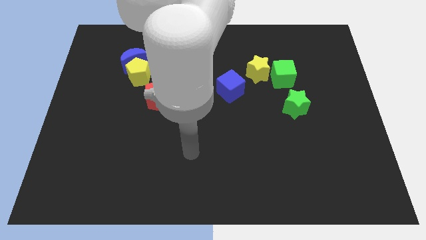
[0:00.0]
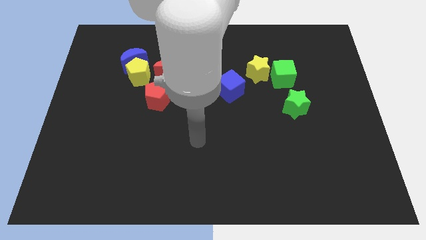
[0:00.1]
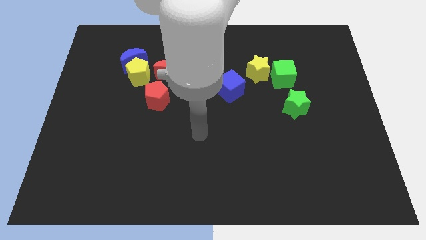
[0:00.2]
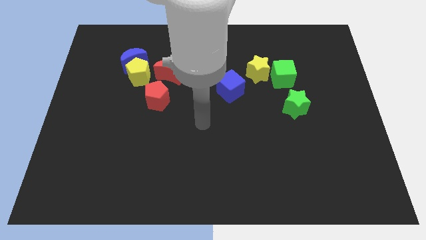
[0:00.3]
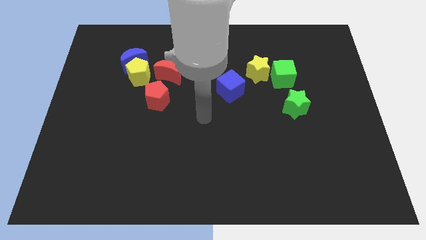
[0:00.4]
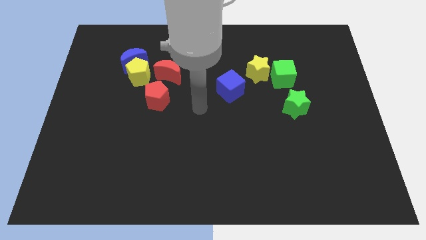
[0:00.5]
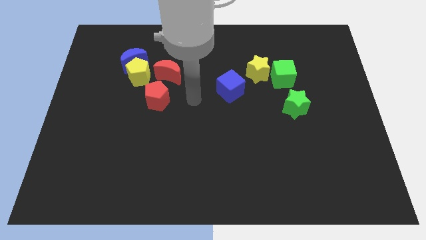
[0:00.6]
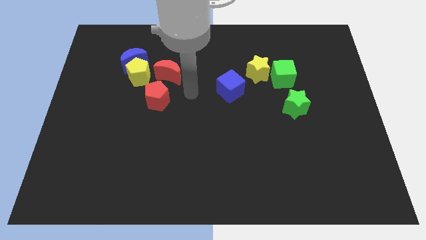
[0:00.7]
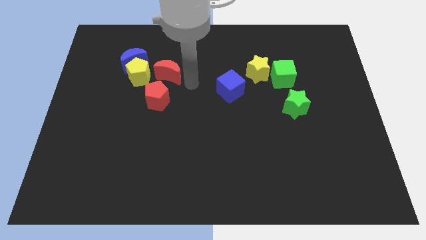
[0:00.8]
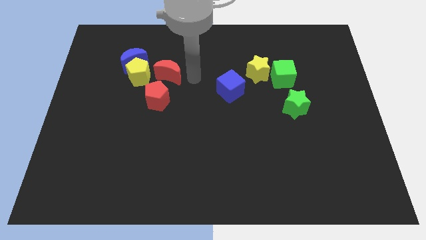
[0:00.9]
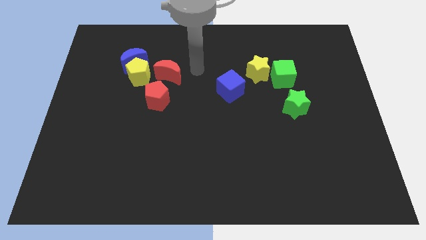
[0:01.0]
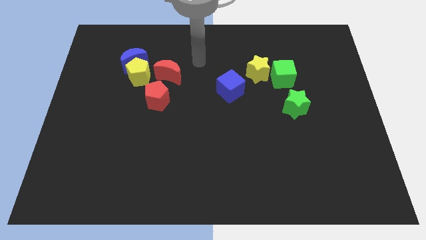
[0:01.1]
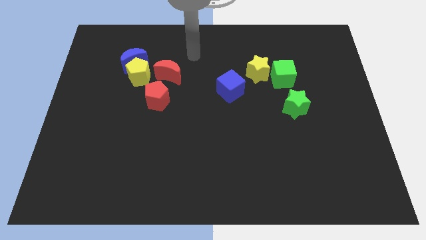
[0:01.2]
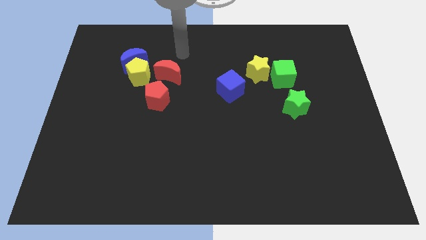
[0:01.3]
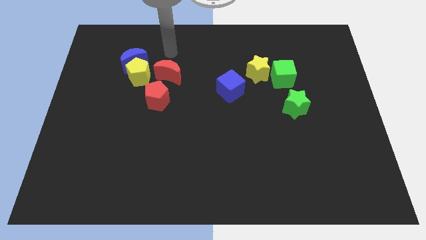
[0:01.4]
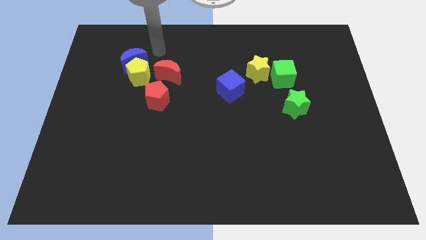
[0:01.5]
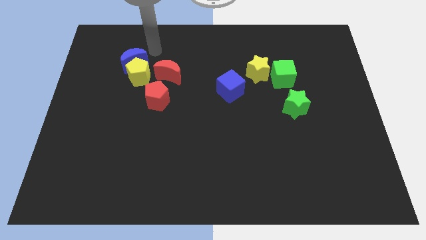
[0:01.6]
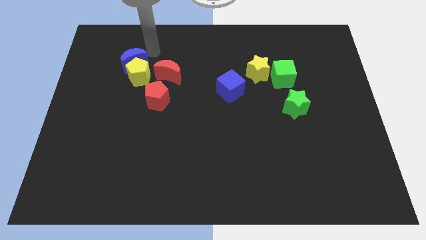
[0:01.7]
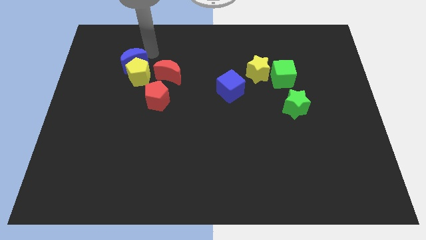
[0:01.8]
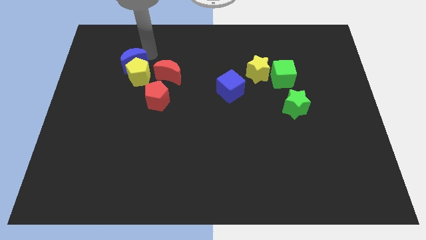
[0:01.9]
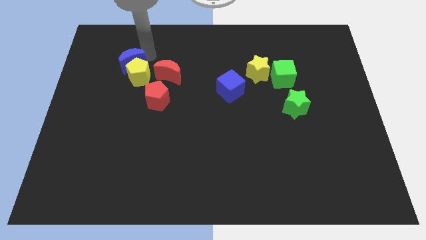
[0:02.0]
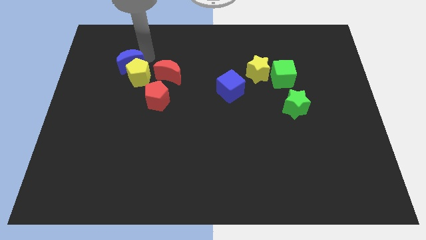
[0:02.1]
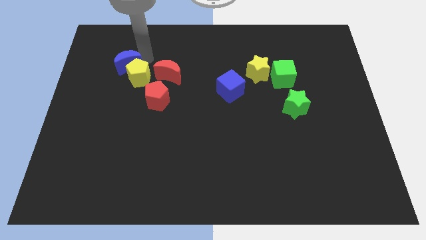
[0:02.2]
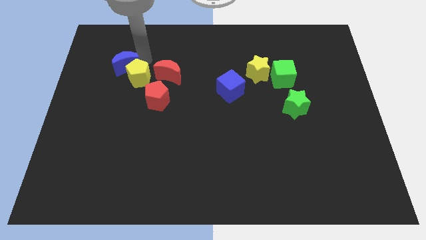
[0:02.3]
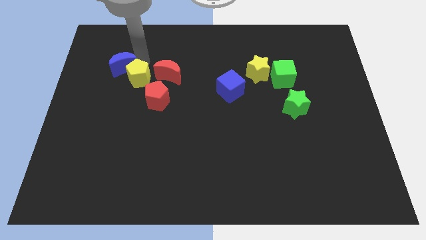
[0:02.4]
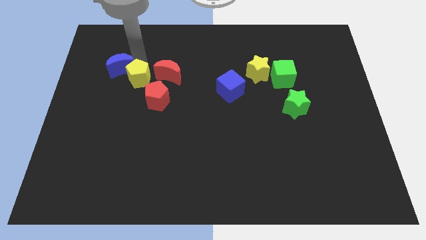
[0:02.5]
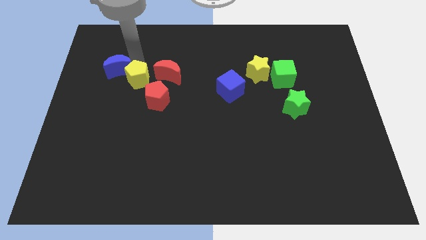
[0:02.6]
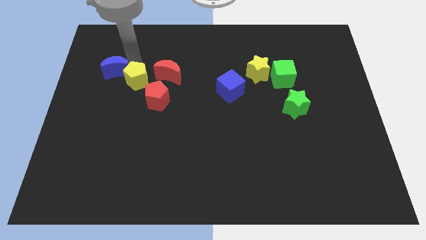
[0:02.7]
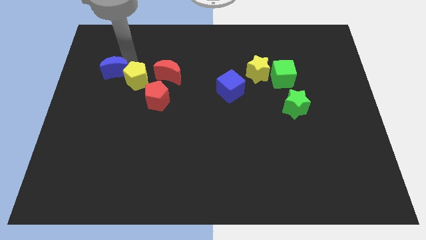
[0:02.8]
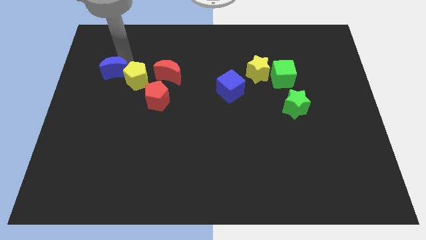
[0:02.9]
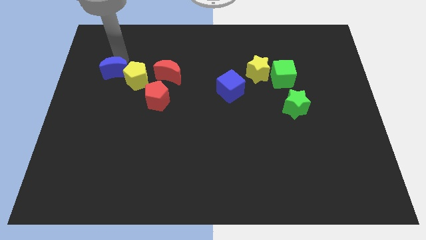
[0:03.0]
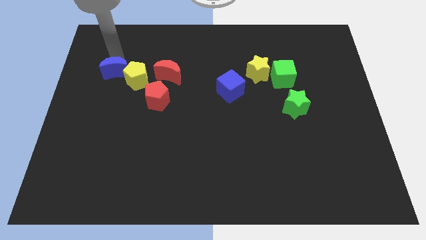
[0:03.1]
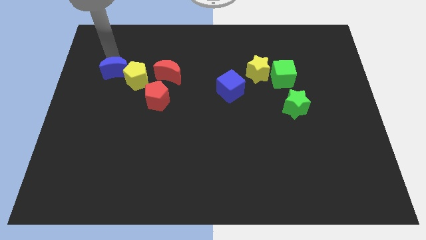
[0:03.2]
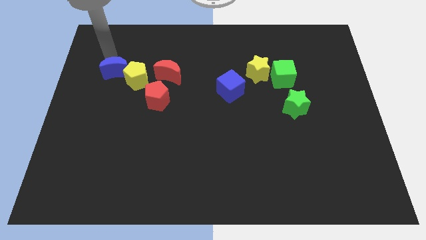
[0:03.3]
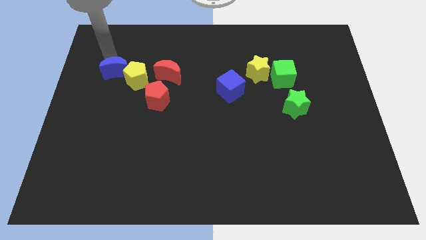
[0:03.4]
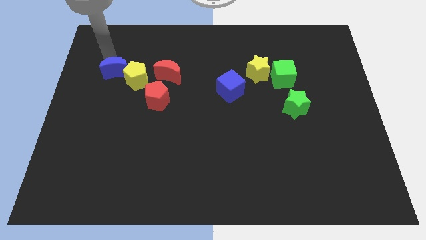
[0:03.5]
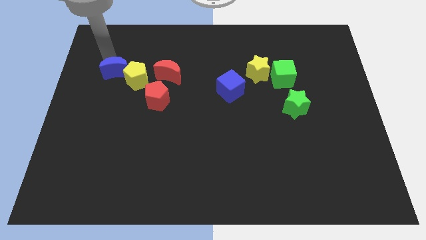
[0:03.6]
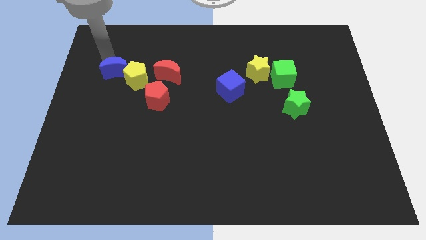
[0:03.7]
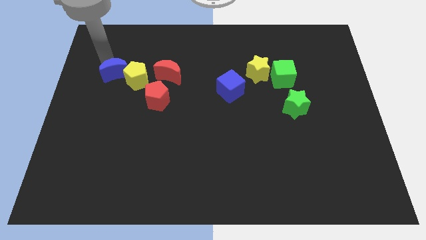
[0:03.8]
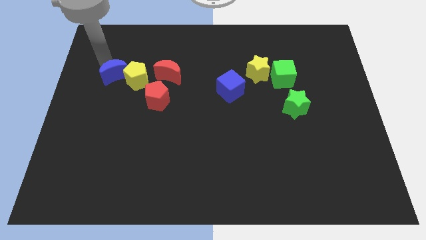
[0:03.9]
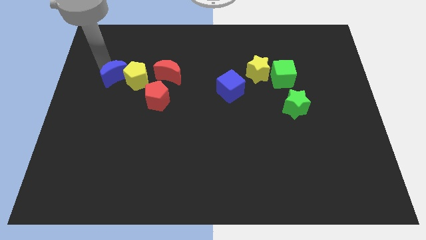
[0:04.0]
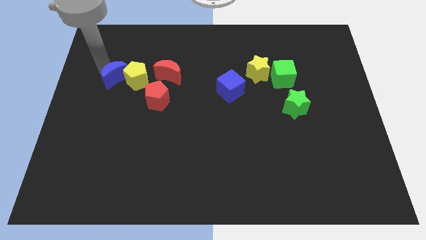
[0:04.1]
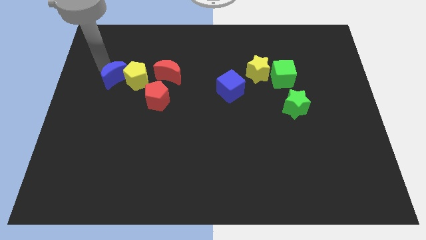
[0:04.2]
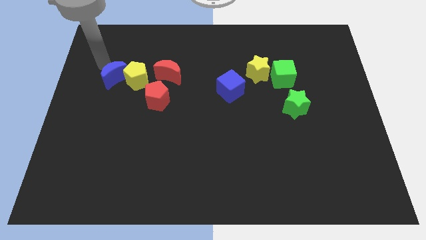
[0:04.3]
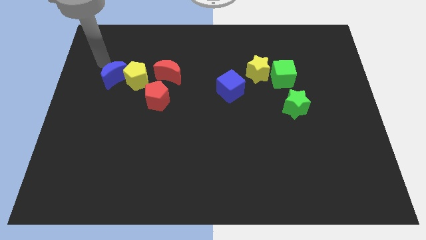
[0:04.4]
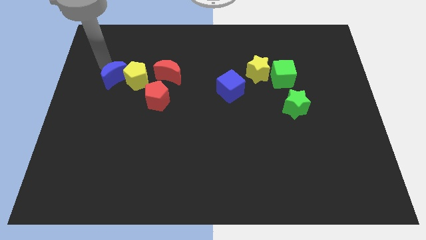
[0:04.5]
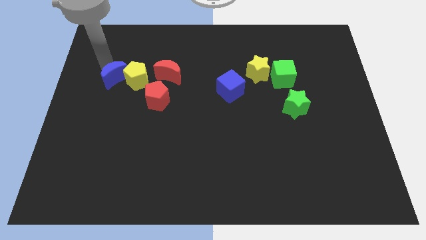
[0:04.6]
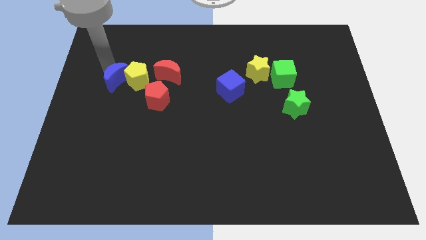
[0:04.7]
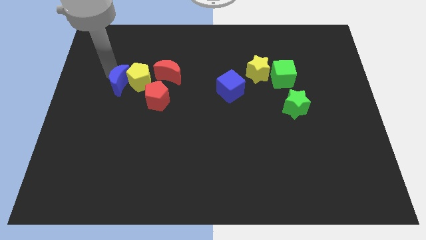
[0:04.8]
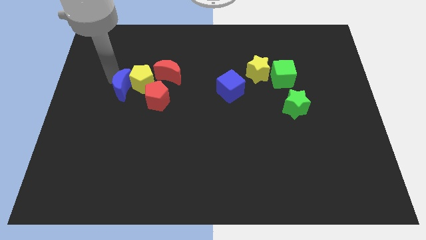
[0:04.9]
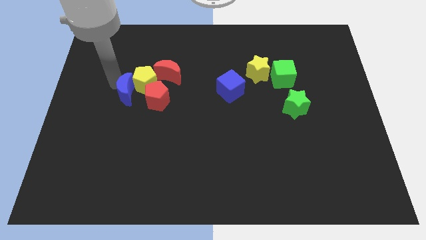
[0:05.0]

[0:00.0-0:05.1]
move the blue moon to the bottom left side of the red moon

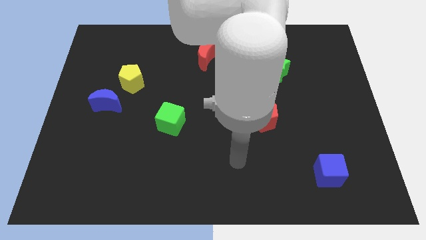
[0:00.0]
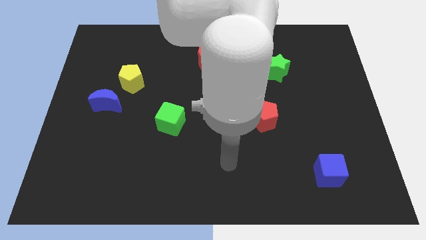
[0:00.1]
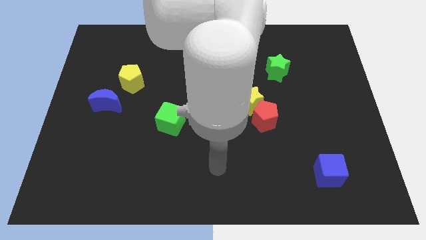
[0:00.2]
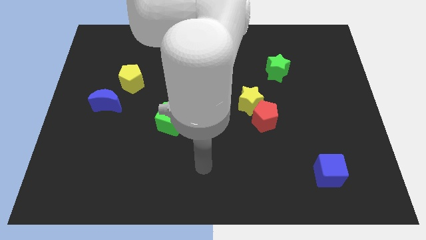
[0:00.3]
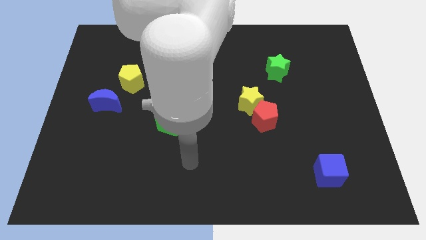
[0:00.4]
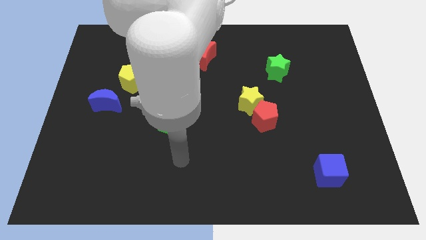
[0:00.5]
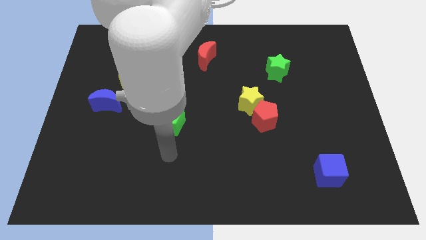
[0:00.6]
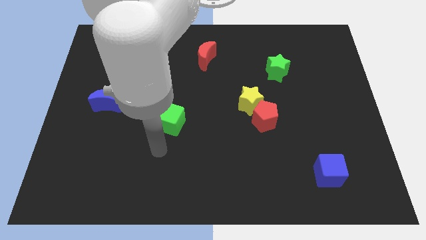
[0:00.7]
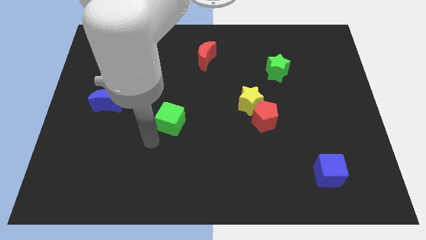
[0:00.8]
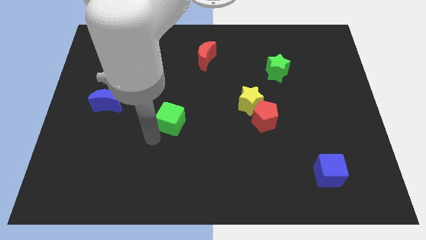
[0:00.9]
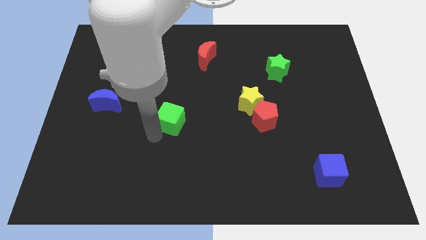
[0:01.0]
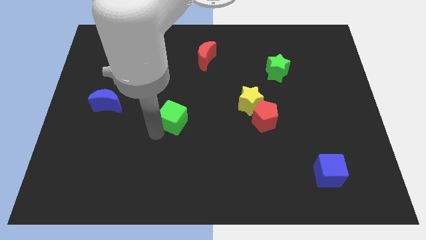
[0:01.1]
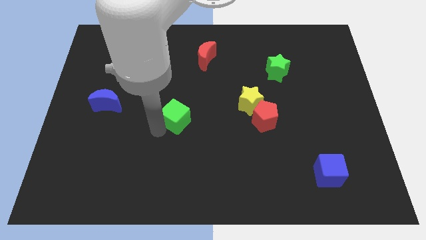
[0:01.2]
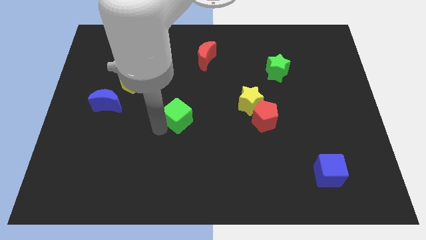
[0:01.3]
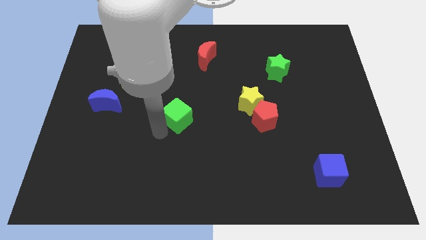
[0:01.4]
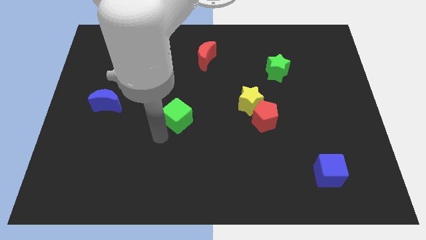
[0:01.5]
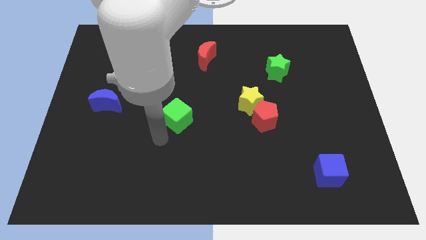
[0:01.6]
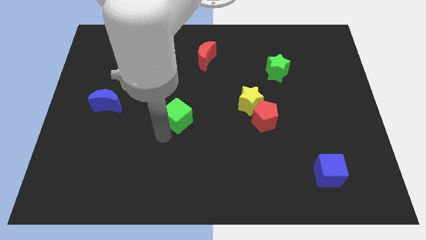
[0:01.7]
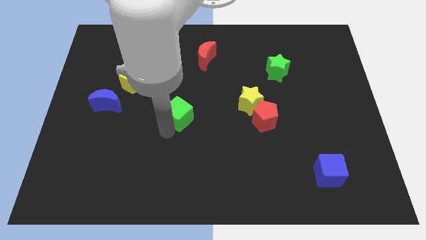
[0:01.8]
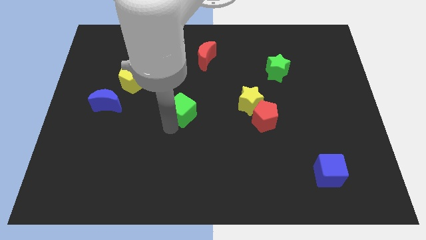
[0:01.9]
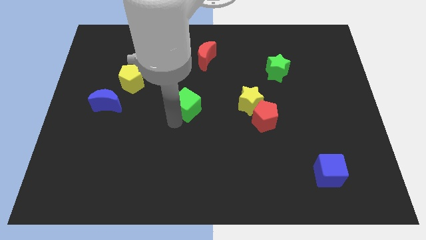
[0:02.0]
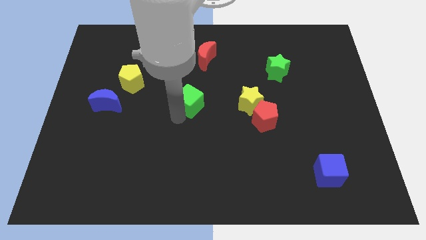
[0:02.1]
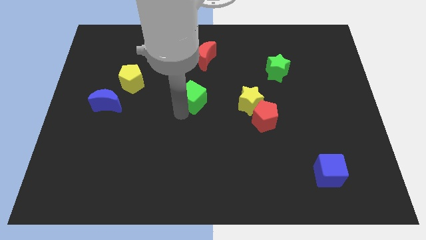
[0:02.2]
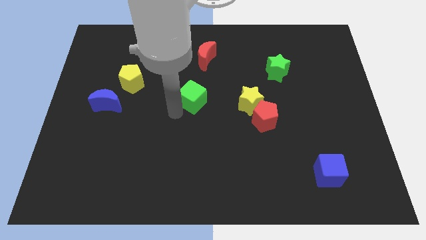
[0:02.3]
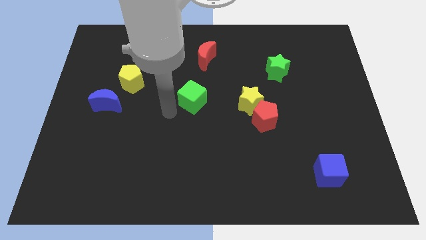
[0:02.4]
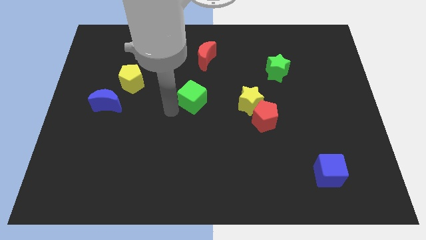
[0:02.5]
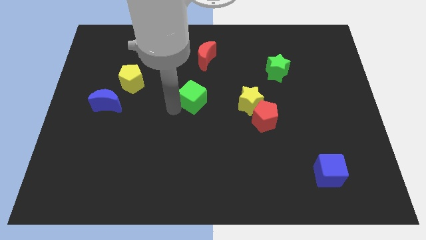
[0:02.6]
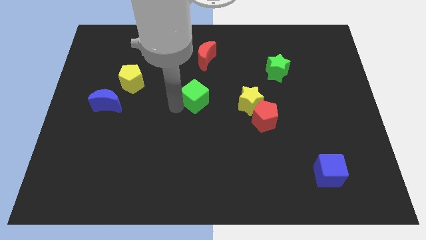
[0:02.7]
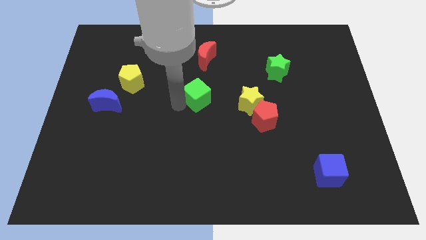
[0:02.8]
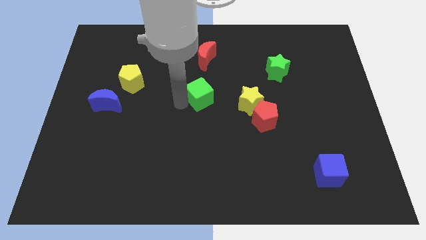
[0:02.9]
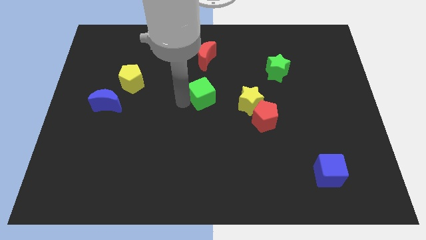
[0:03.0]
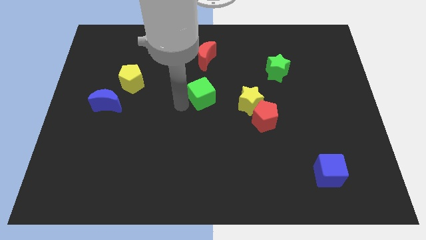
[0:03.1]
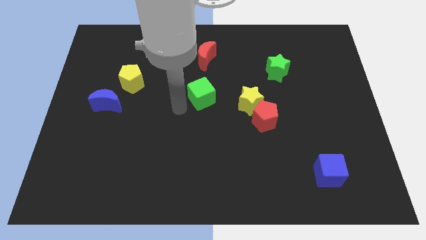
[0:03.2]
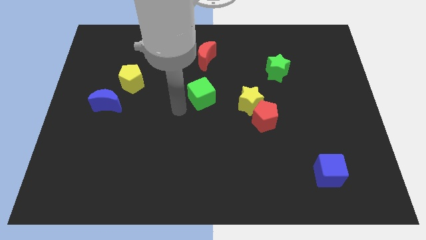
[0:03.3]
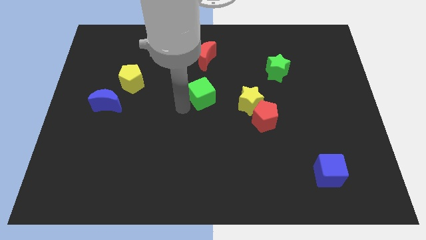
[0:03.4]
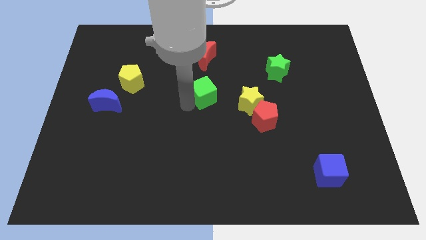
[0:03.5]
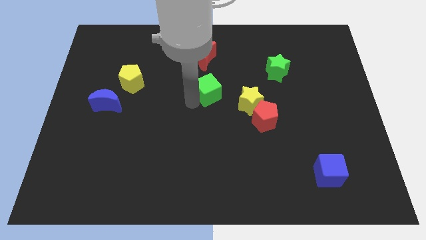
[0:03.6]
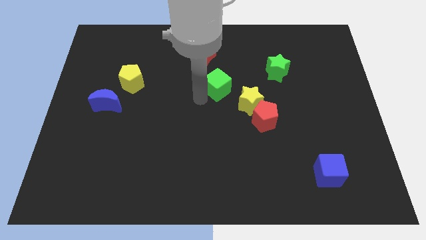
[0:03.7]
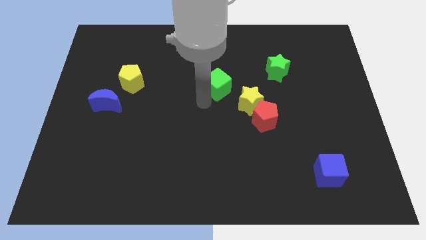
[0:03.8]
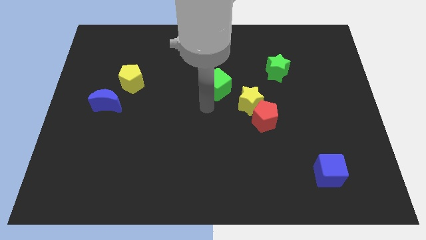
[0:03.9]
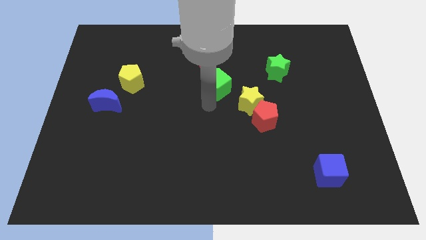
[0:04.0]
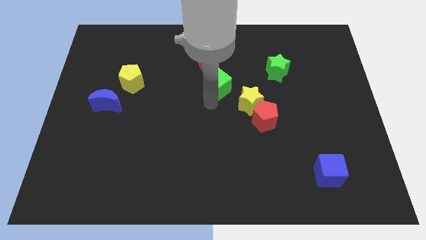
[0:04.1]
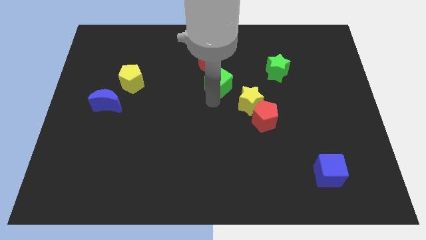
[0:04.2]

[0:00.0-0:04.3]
move the green cube to the bottom right of the red moon
